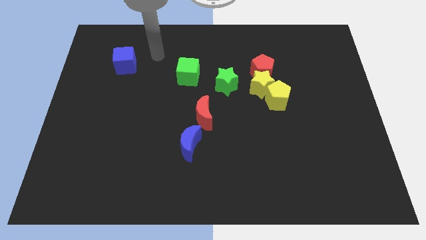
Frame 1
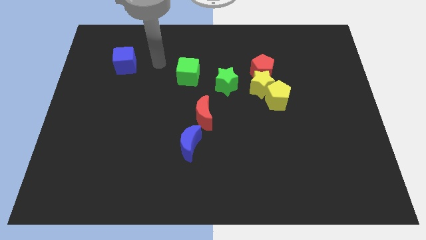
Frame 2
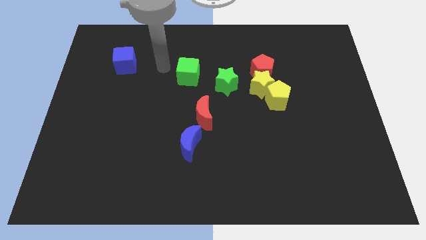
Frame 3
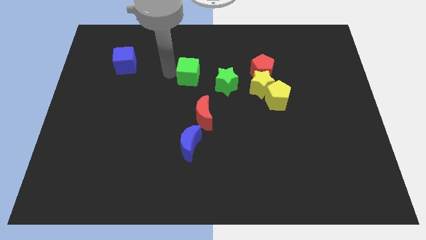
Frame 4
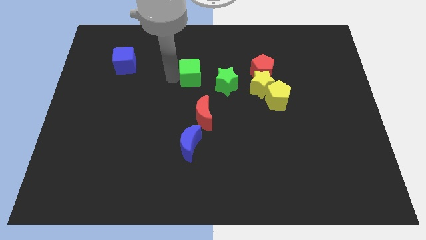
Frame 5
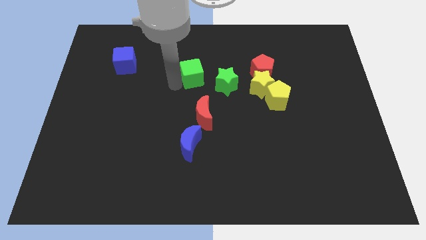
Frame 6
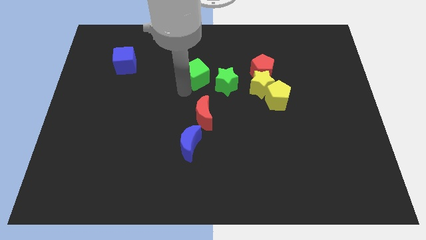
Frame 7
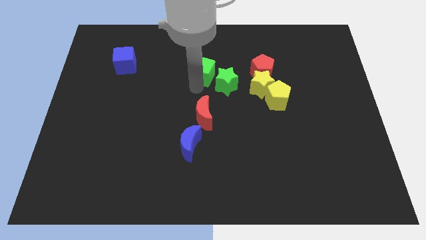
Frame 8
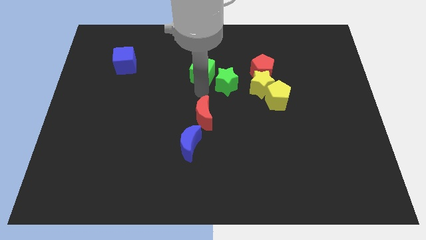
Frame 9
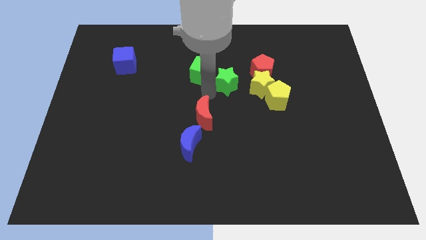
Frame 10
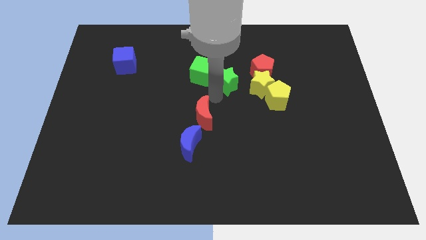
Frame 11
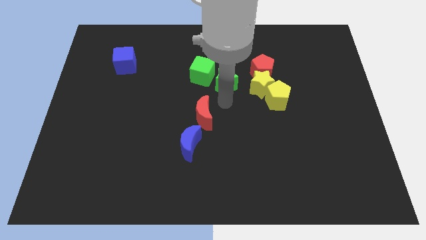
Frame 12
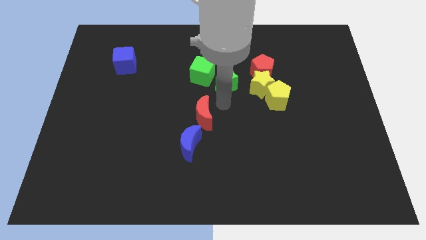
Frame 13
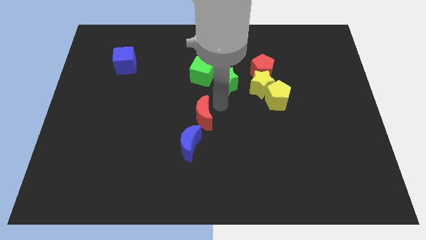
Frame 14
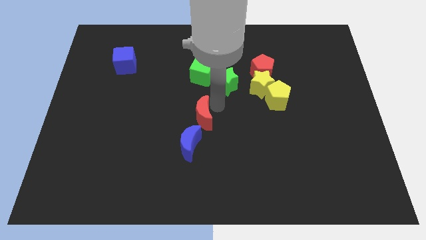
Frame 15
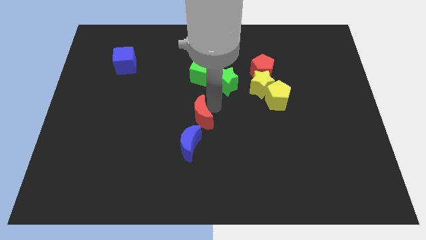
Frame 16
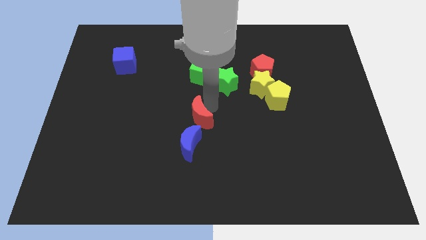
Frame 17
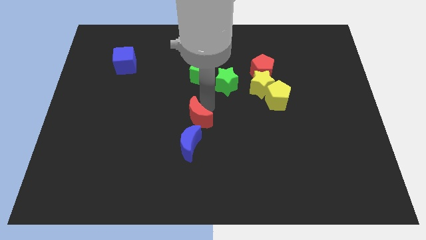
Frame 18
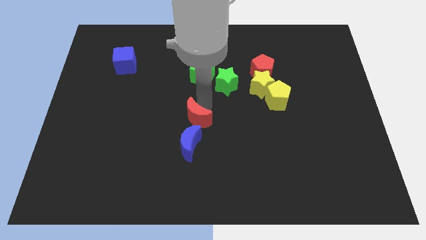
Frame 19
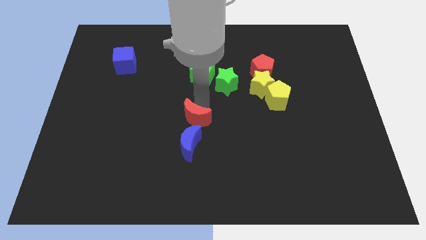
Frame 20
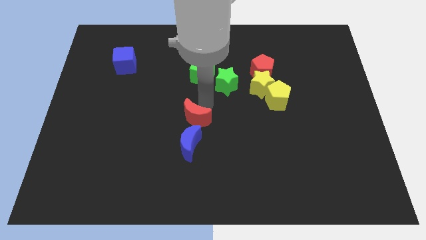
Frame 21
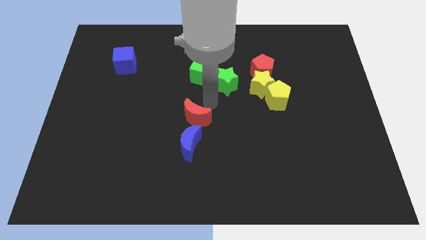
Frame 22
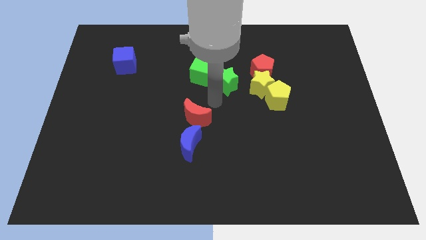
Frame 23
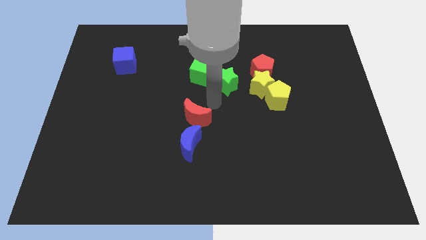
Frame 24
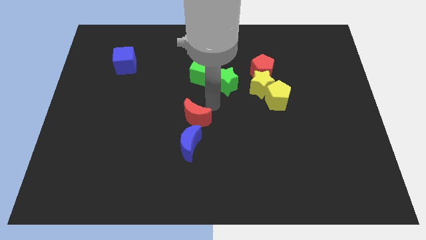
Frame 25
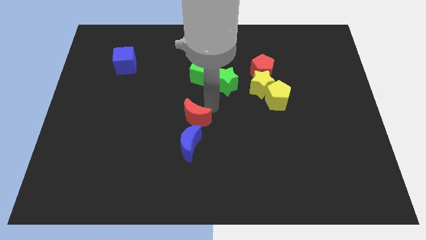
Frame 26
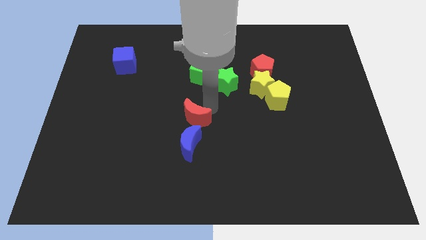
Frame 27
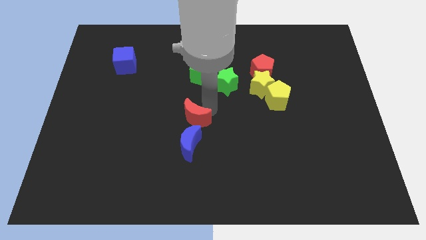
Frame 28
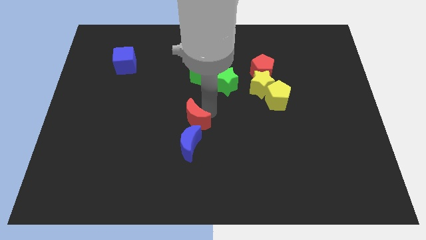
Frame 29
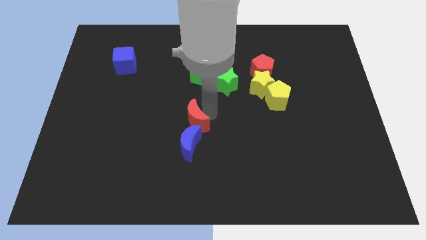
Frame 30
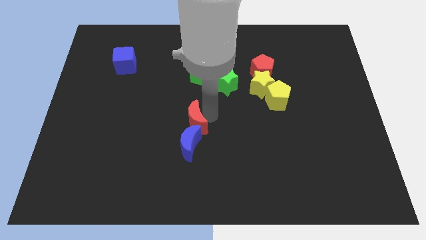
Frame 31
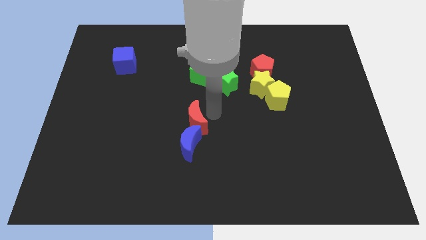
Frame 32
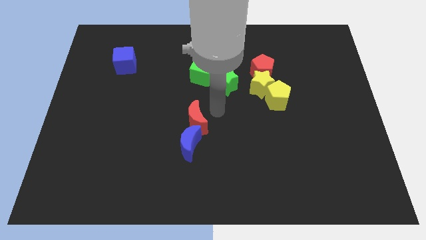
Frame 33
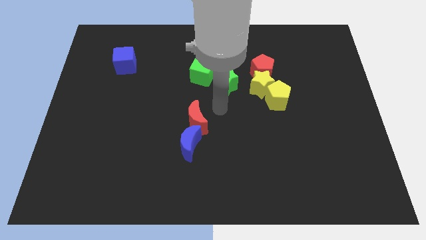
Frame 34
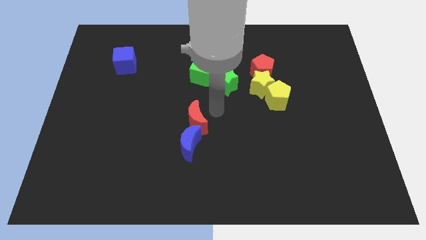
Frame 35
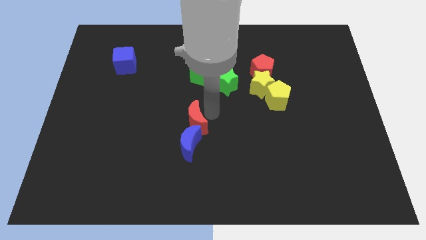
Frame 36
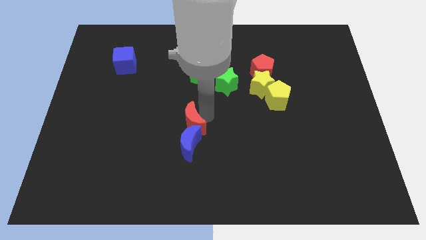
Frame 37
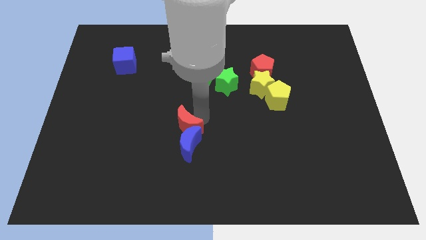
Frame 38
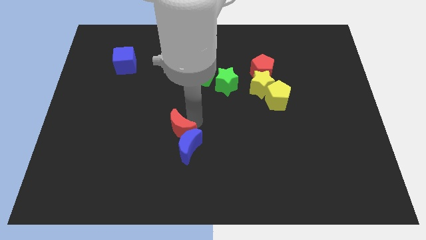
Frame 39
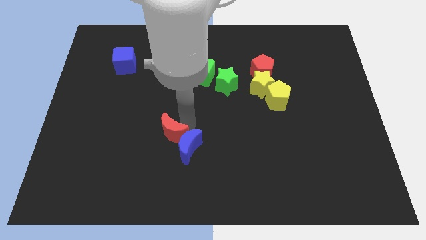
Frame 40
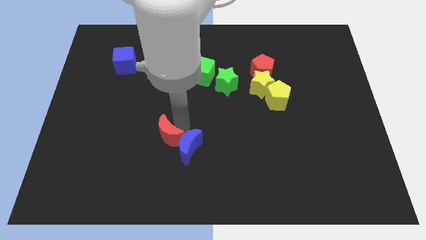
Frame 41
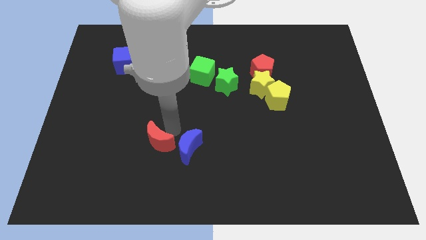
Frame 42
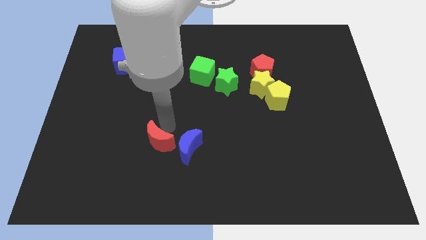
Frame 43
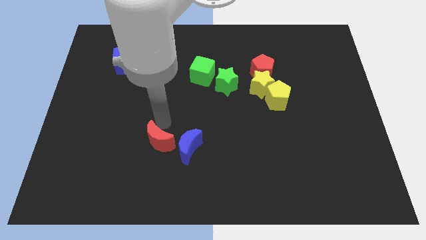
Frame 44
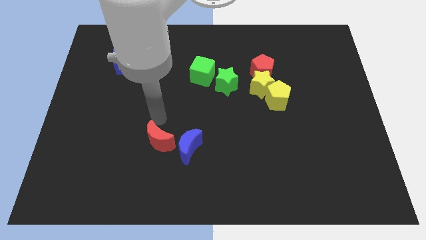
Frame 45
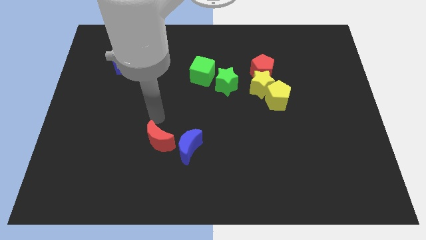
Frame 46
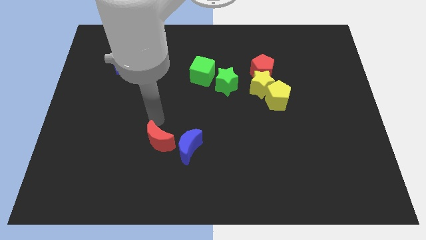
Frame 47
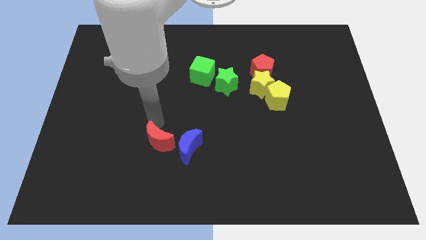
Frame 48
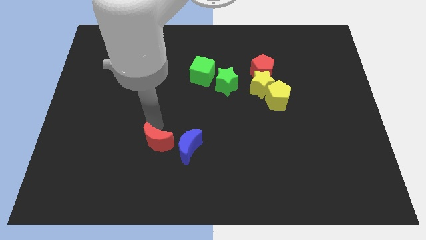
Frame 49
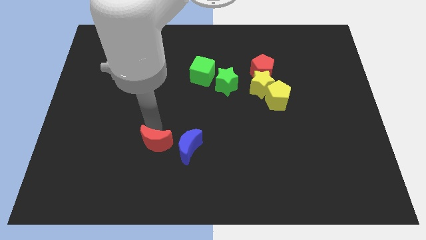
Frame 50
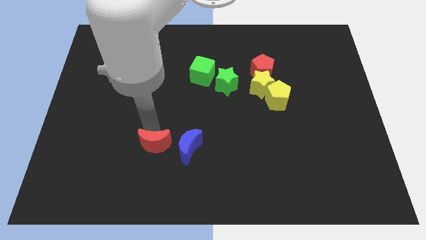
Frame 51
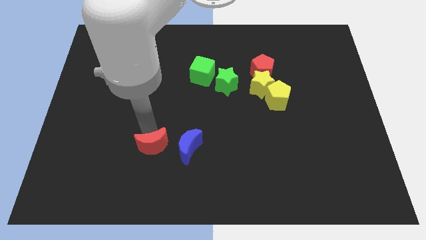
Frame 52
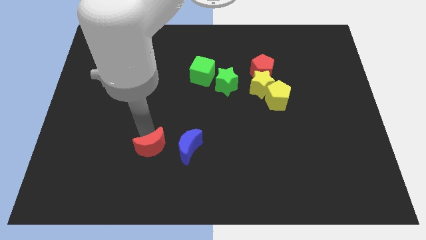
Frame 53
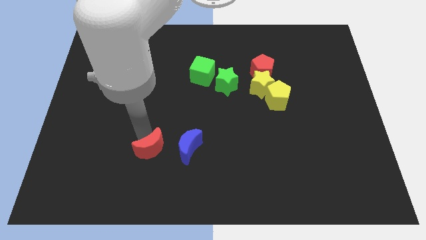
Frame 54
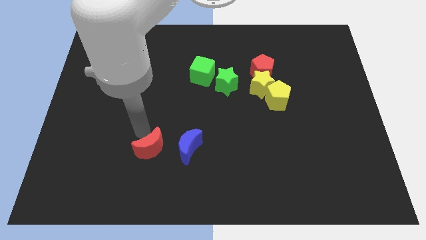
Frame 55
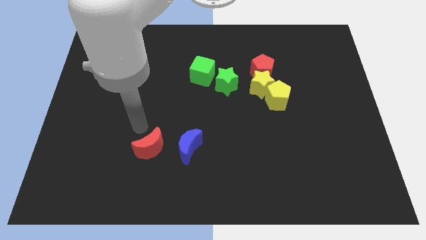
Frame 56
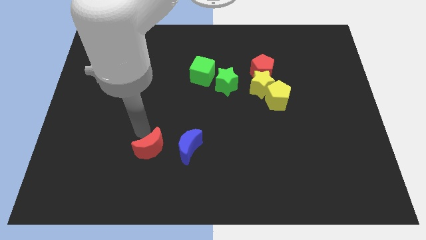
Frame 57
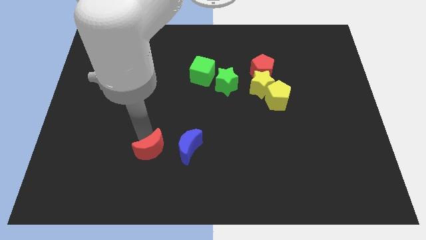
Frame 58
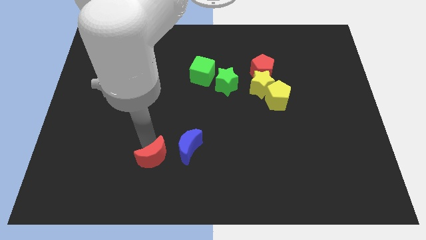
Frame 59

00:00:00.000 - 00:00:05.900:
push the red moon diagonally down and to the left of the blue moon

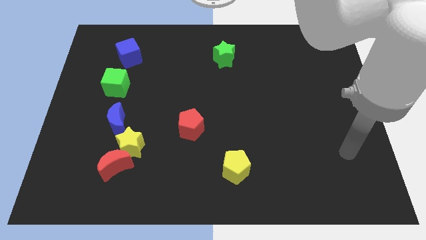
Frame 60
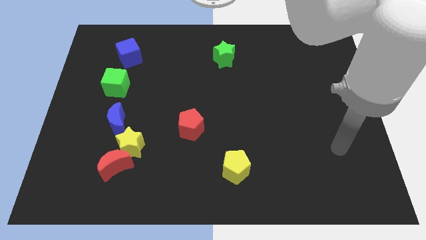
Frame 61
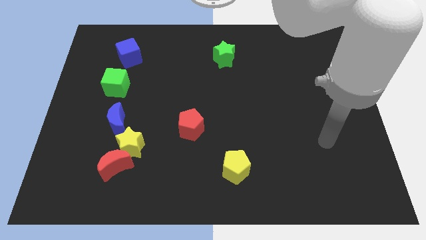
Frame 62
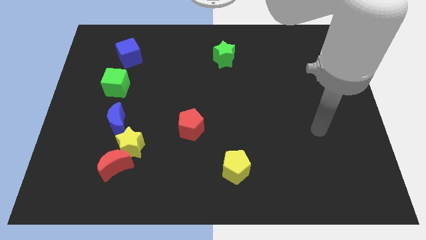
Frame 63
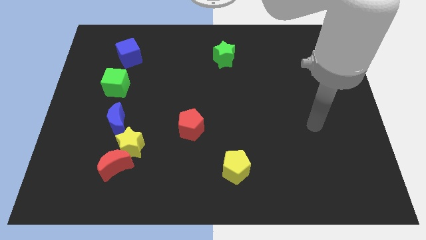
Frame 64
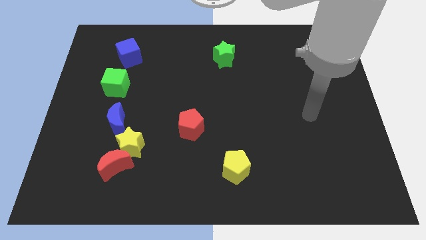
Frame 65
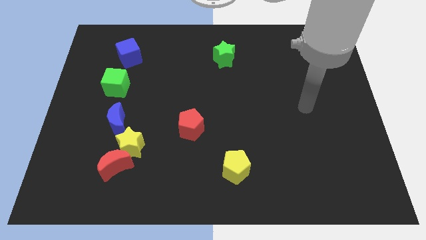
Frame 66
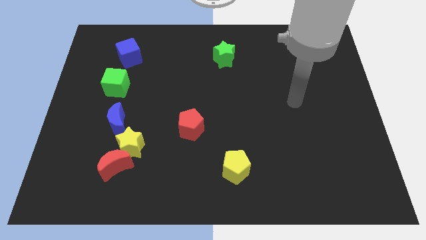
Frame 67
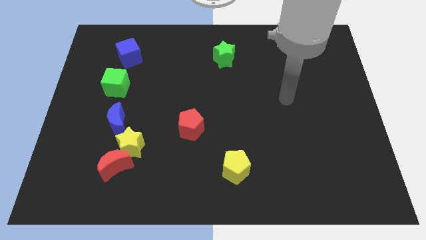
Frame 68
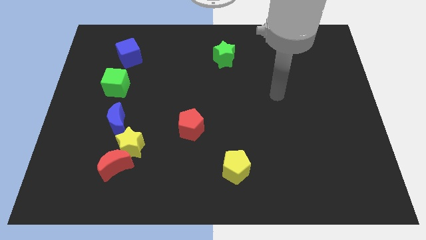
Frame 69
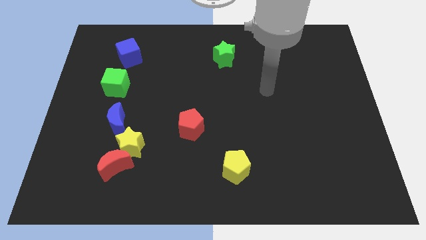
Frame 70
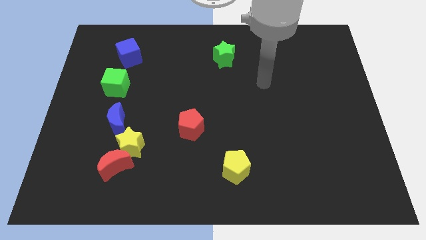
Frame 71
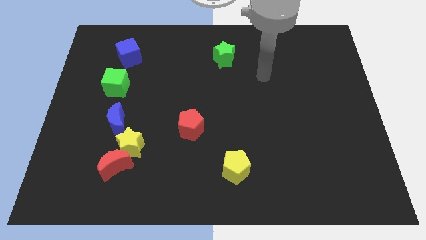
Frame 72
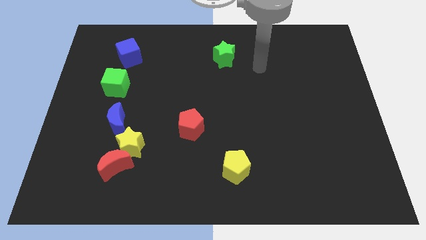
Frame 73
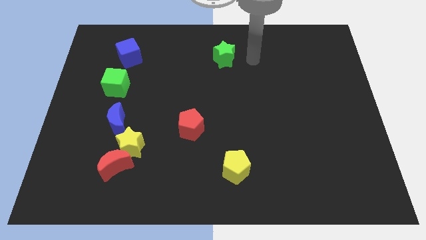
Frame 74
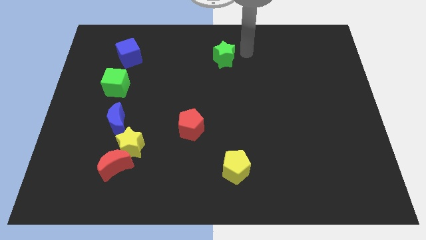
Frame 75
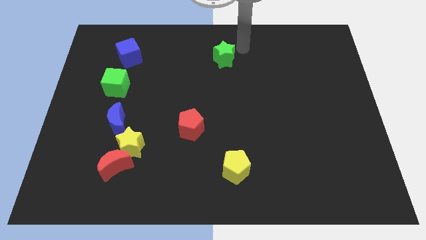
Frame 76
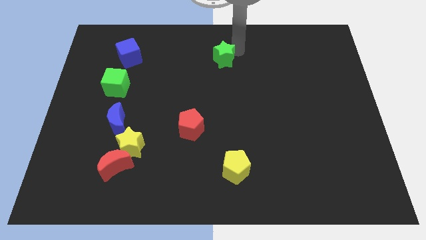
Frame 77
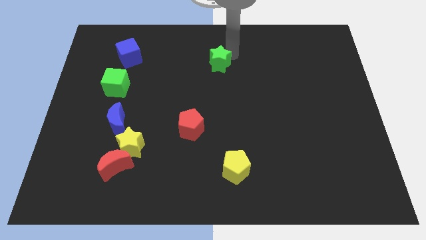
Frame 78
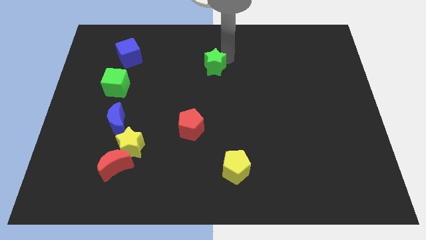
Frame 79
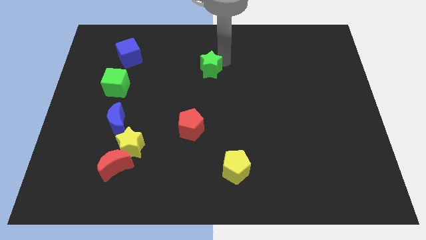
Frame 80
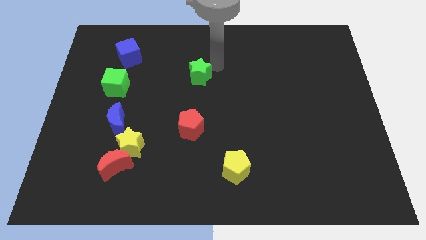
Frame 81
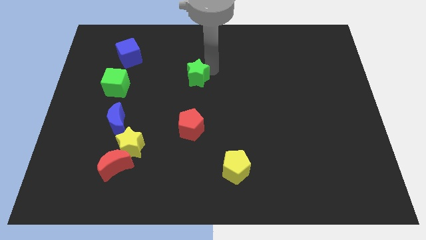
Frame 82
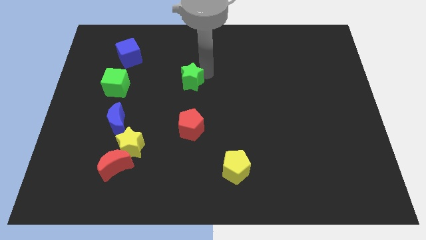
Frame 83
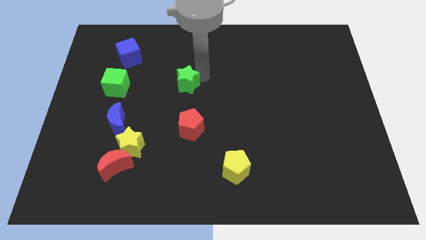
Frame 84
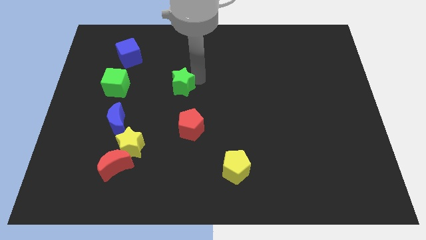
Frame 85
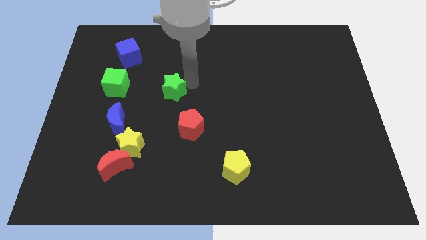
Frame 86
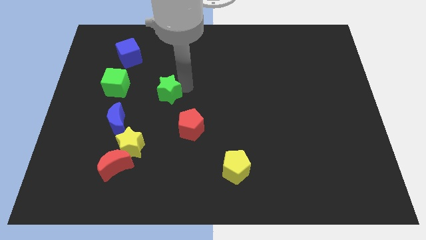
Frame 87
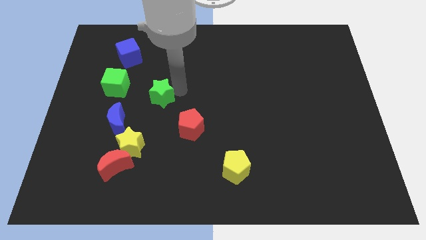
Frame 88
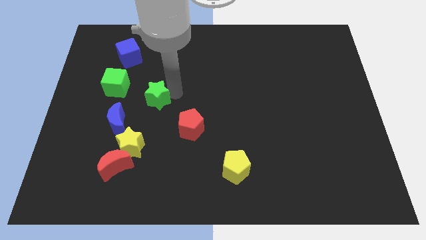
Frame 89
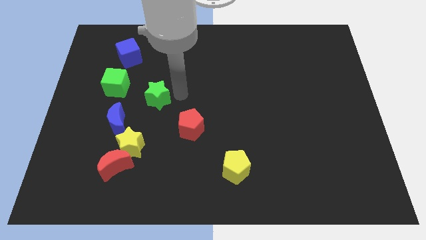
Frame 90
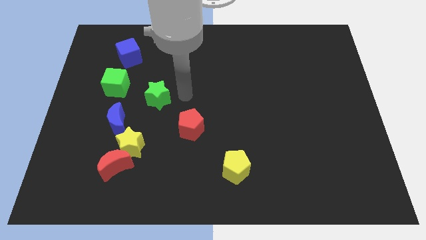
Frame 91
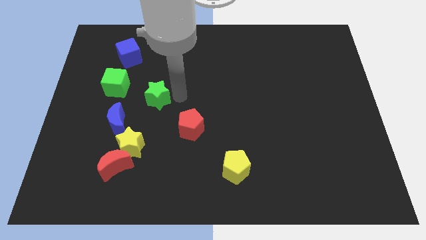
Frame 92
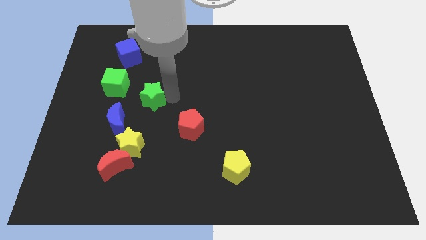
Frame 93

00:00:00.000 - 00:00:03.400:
put the green star to the bottom right of the green cube
